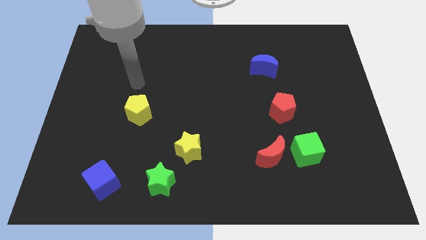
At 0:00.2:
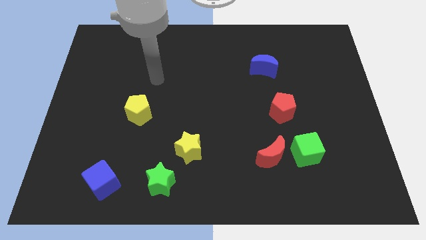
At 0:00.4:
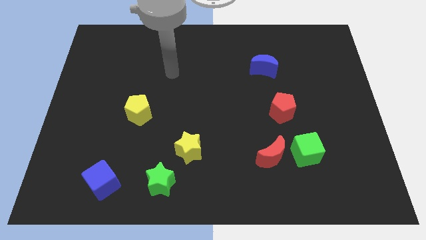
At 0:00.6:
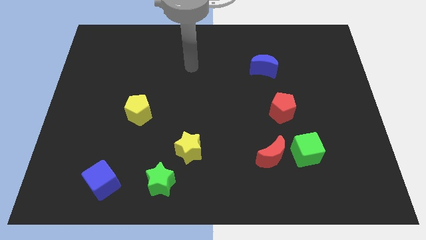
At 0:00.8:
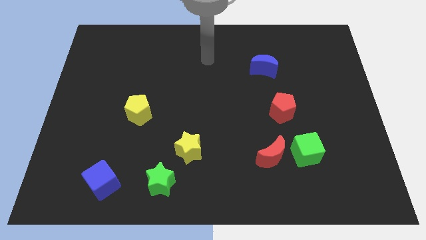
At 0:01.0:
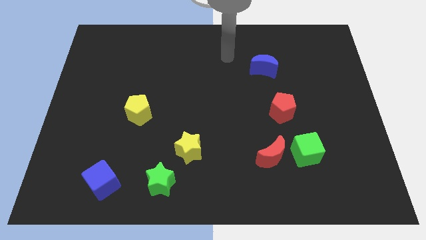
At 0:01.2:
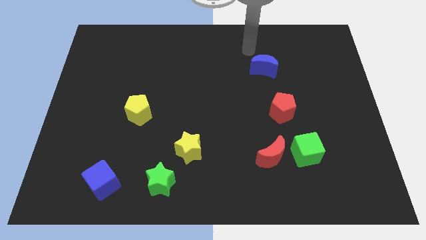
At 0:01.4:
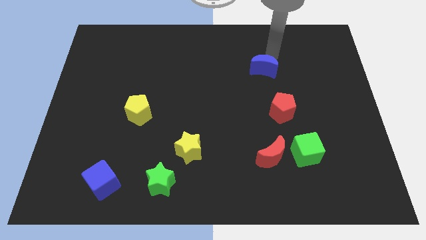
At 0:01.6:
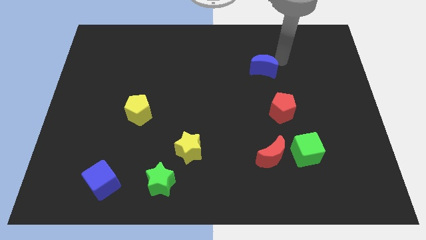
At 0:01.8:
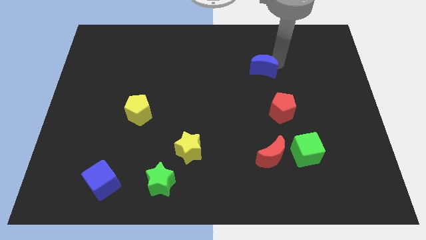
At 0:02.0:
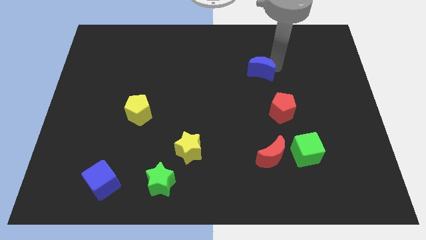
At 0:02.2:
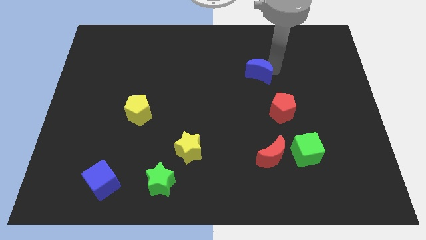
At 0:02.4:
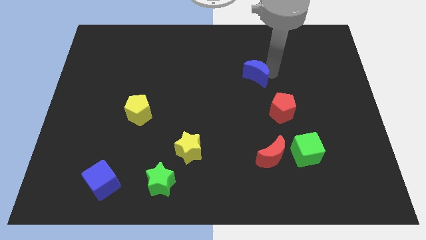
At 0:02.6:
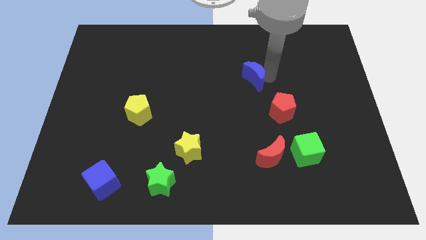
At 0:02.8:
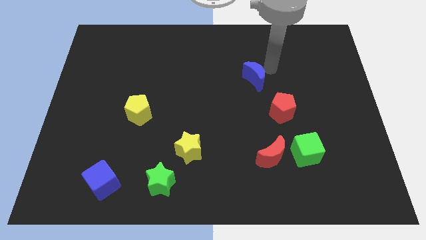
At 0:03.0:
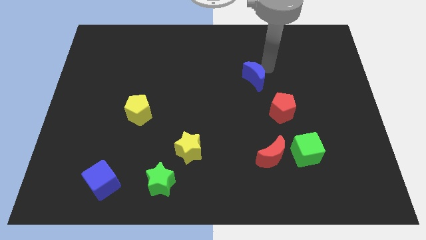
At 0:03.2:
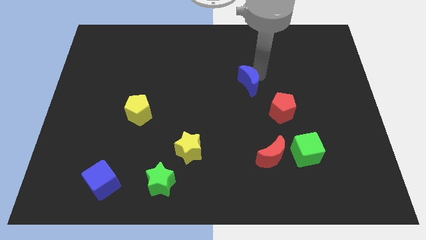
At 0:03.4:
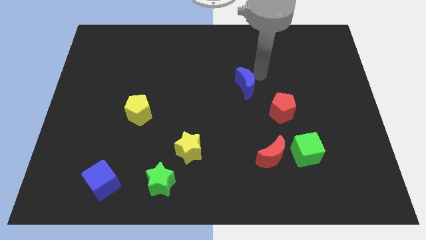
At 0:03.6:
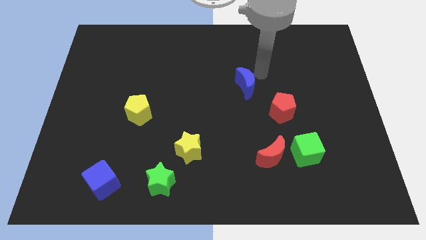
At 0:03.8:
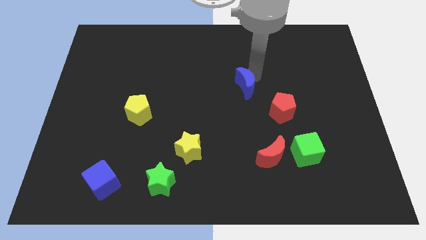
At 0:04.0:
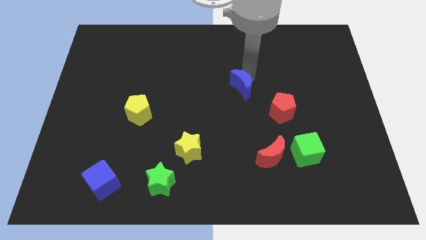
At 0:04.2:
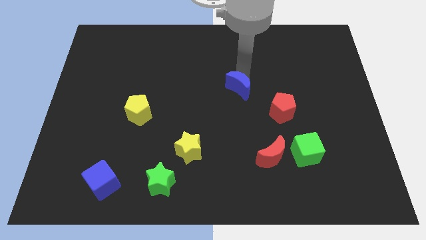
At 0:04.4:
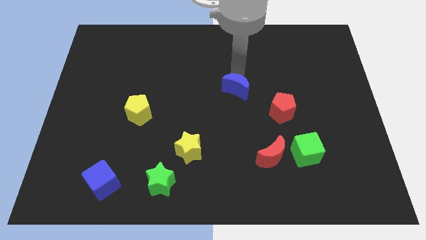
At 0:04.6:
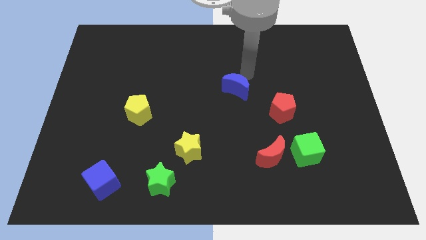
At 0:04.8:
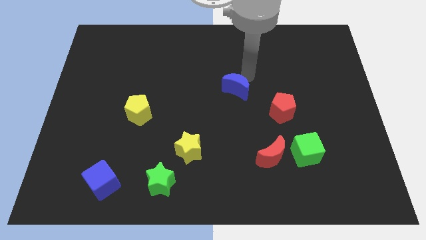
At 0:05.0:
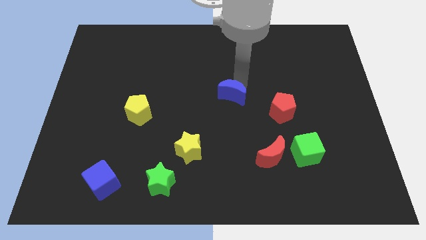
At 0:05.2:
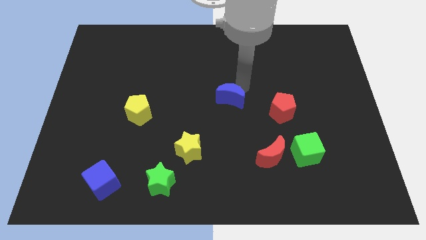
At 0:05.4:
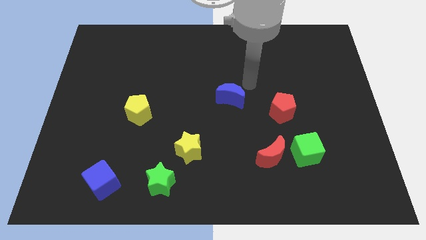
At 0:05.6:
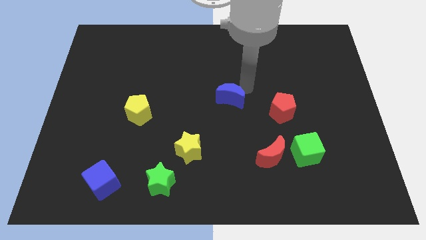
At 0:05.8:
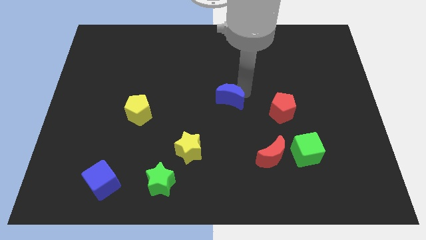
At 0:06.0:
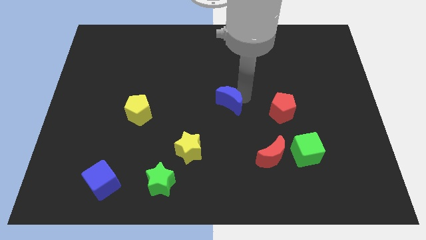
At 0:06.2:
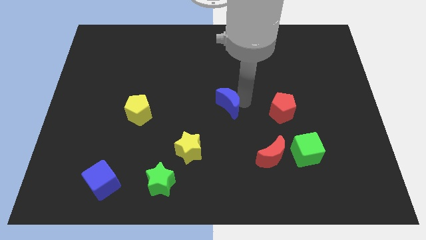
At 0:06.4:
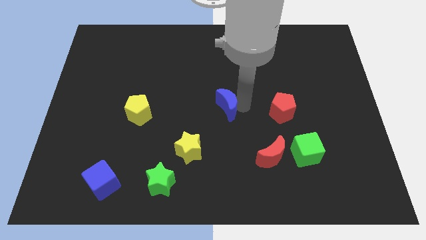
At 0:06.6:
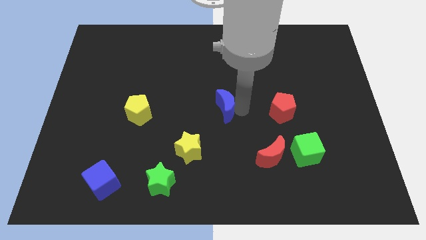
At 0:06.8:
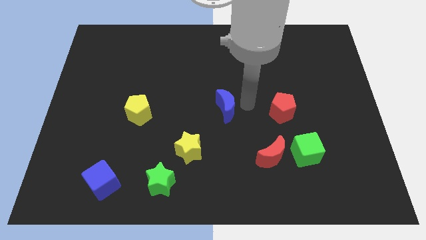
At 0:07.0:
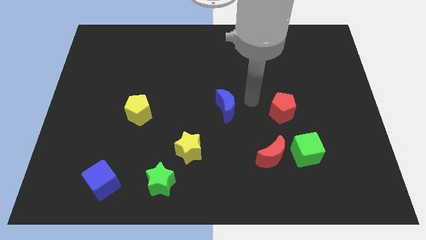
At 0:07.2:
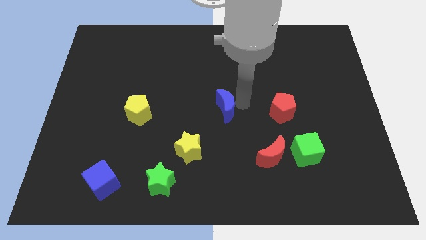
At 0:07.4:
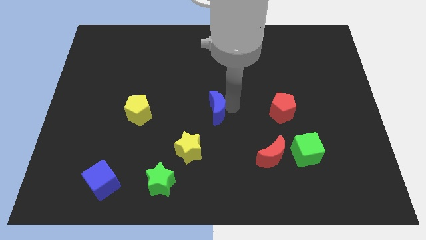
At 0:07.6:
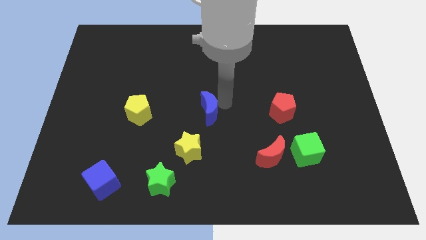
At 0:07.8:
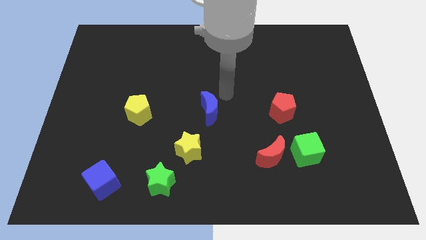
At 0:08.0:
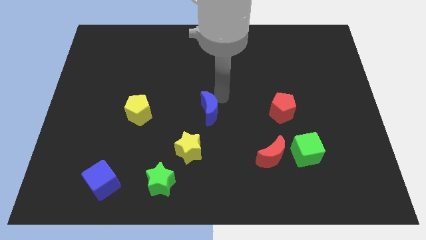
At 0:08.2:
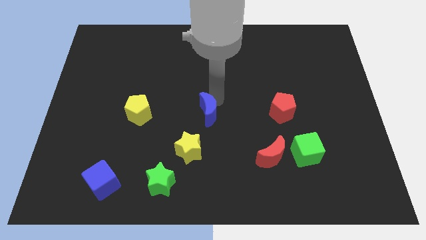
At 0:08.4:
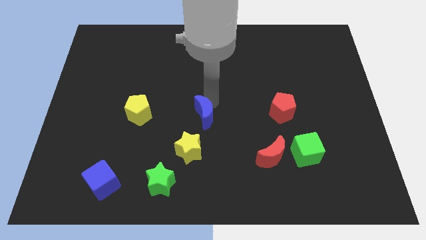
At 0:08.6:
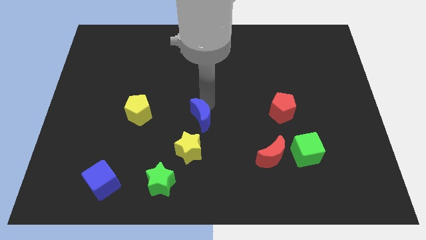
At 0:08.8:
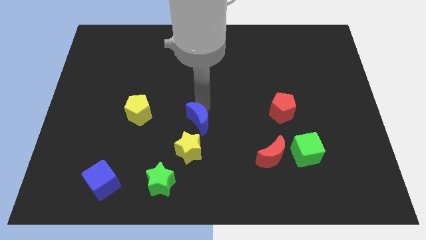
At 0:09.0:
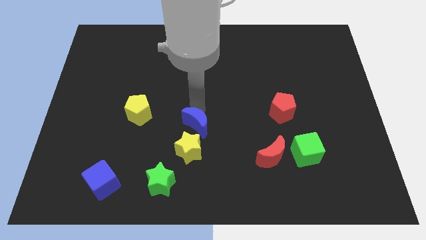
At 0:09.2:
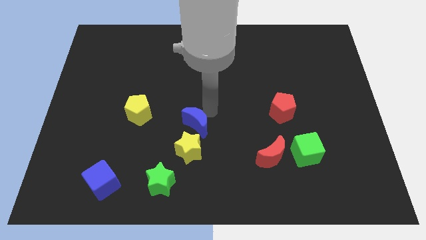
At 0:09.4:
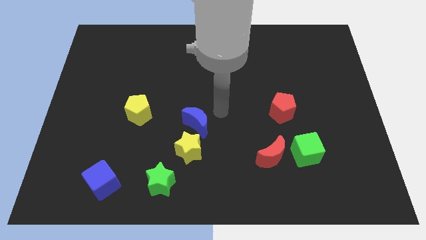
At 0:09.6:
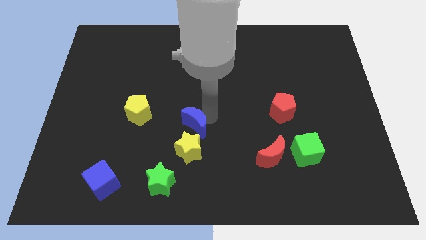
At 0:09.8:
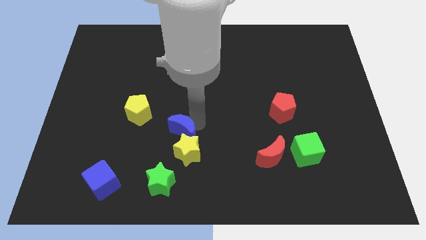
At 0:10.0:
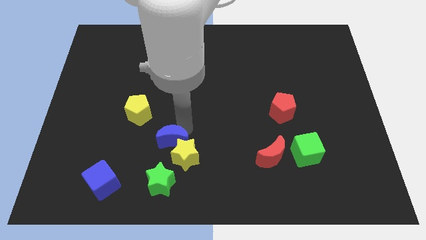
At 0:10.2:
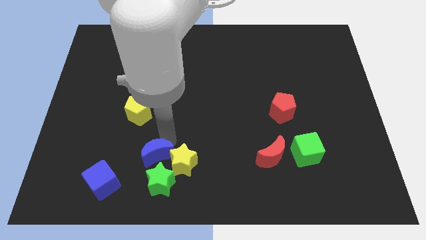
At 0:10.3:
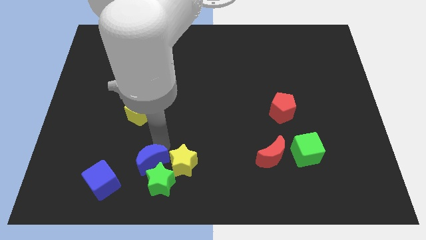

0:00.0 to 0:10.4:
put the blue moon towards the green star

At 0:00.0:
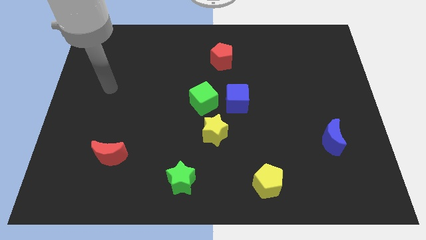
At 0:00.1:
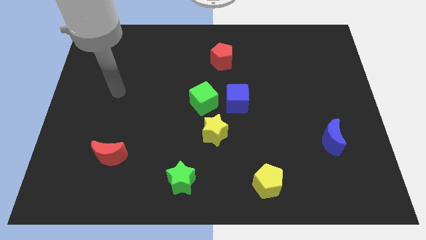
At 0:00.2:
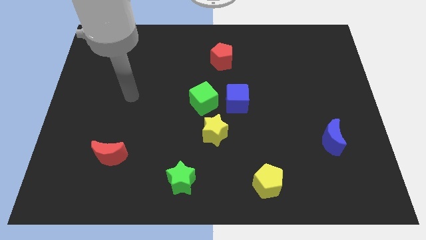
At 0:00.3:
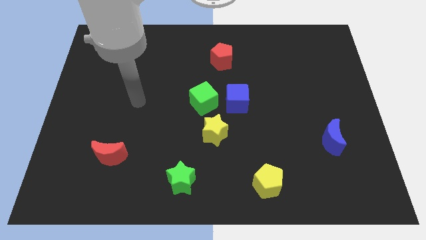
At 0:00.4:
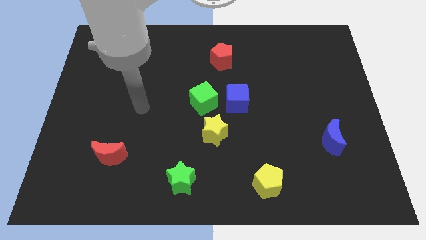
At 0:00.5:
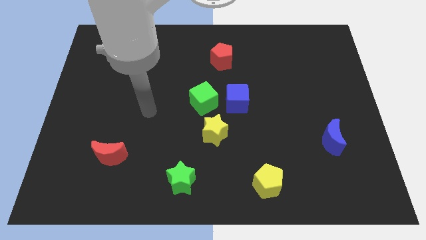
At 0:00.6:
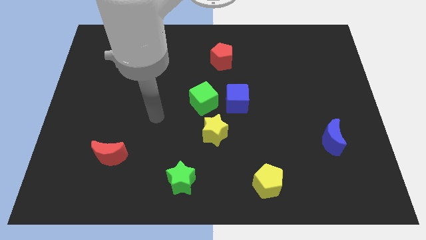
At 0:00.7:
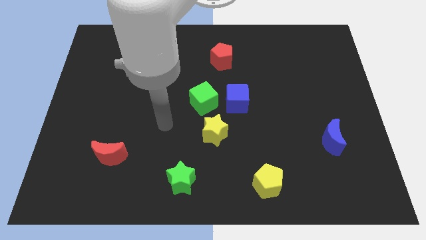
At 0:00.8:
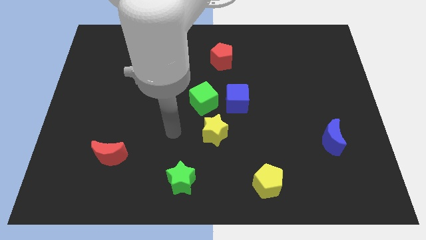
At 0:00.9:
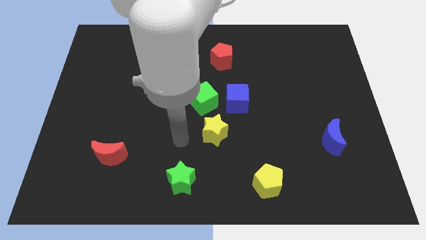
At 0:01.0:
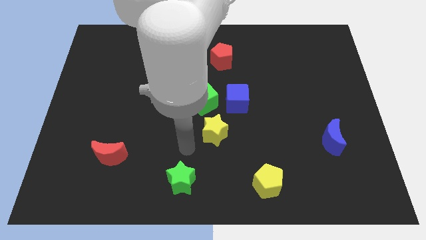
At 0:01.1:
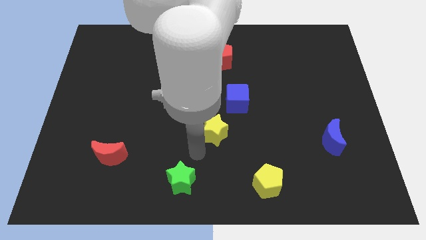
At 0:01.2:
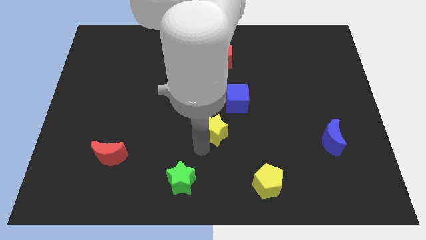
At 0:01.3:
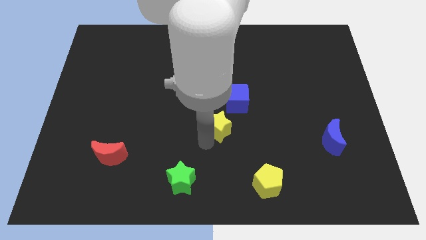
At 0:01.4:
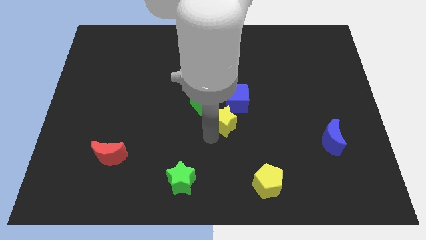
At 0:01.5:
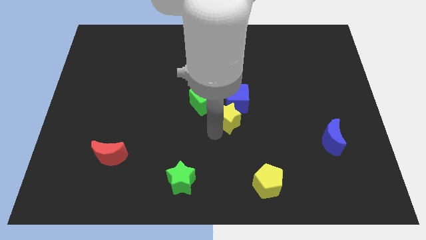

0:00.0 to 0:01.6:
push the yellow star close to the blue cube
